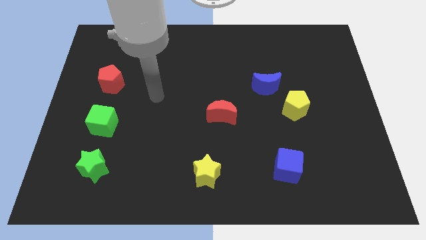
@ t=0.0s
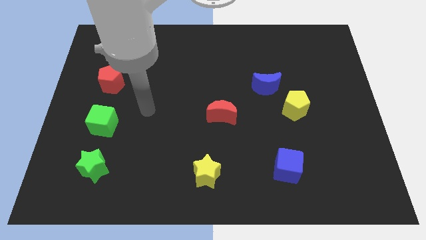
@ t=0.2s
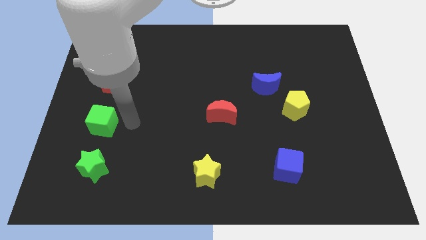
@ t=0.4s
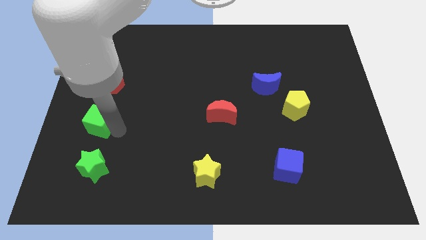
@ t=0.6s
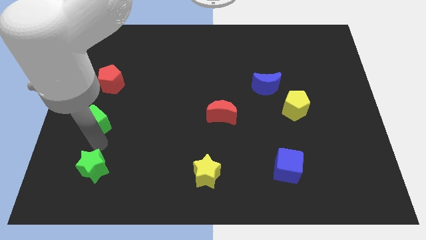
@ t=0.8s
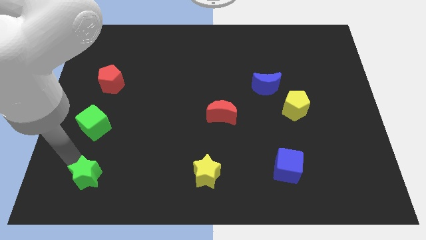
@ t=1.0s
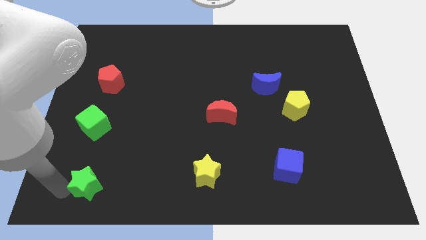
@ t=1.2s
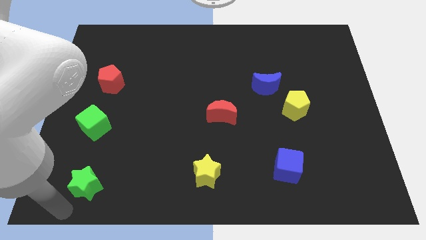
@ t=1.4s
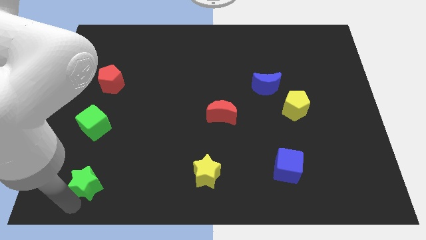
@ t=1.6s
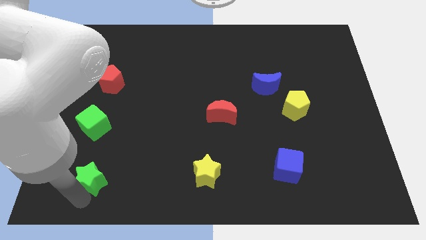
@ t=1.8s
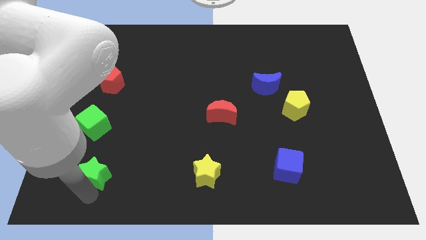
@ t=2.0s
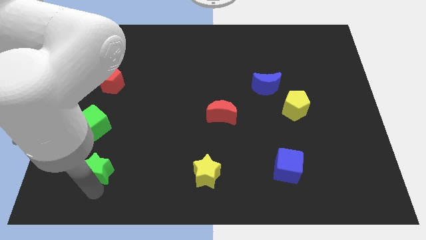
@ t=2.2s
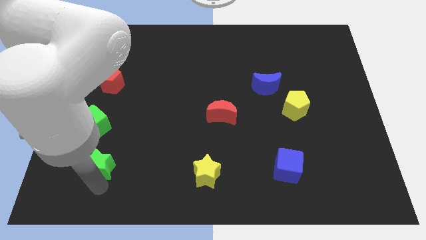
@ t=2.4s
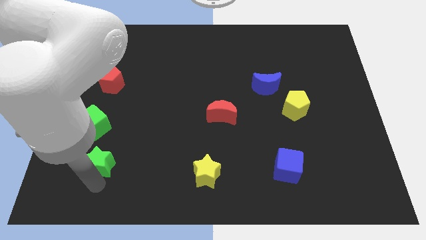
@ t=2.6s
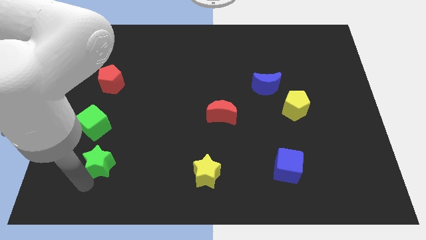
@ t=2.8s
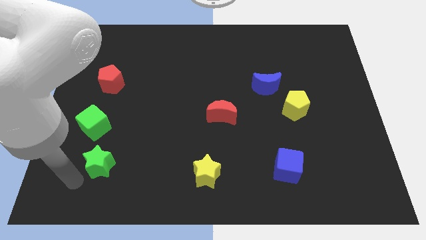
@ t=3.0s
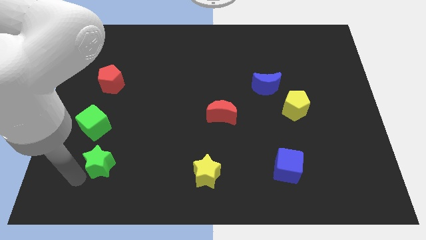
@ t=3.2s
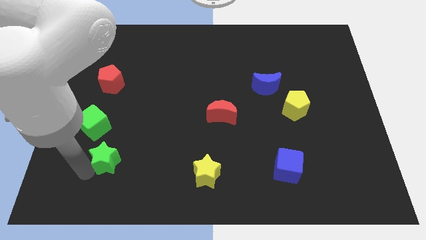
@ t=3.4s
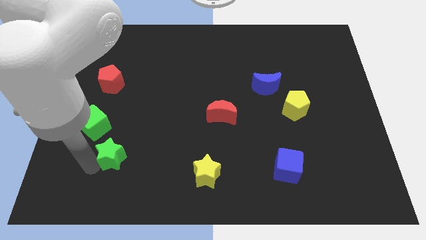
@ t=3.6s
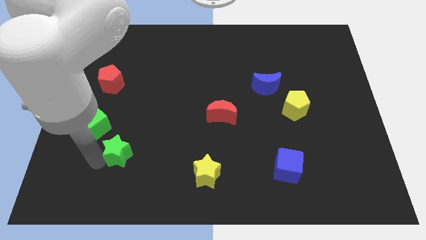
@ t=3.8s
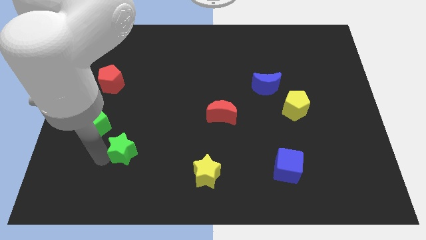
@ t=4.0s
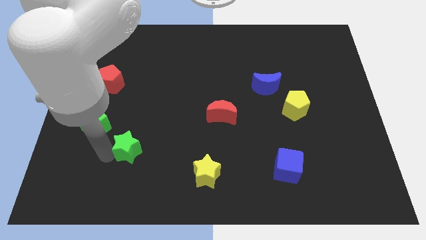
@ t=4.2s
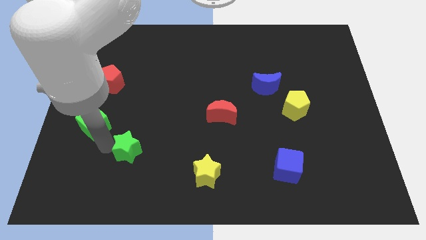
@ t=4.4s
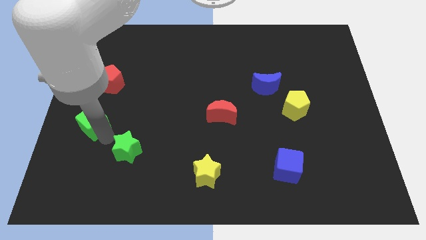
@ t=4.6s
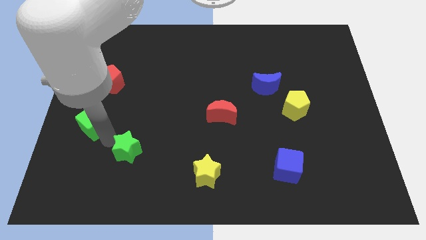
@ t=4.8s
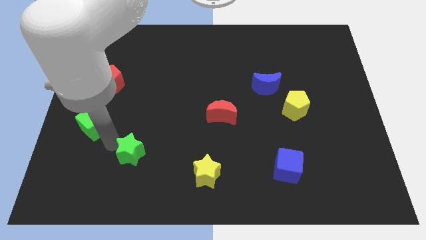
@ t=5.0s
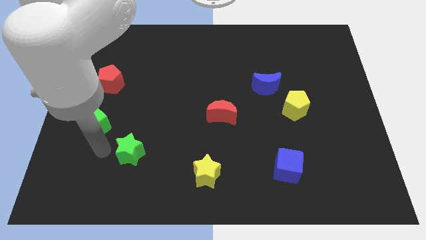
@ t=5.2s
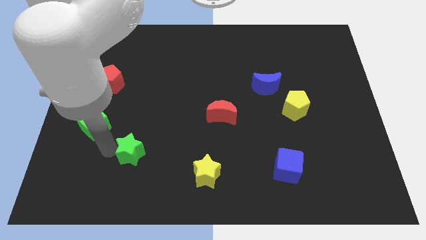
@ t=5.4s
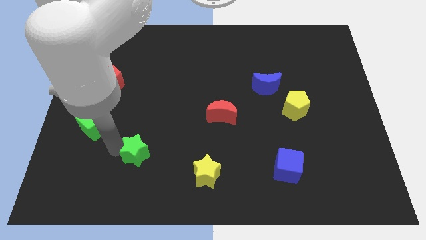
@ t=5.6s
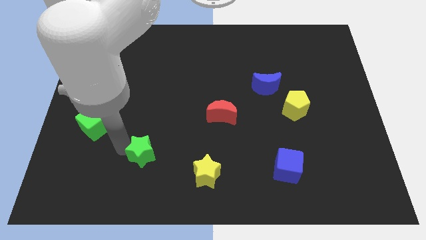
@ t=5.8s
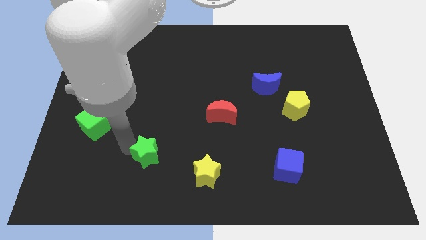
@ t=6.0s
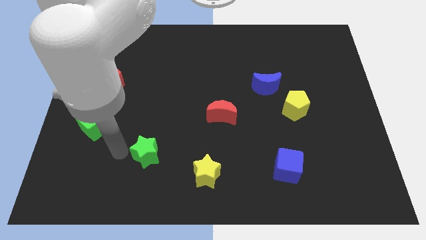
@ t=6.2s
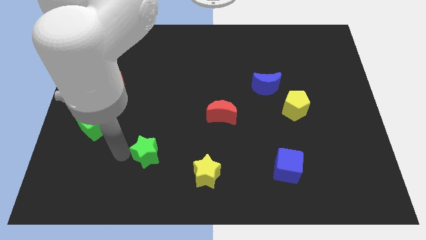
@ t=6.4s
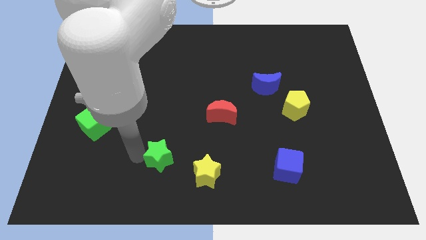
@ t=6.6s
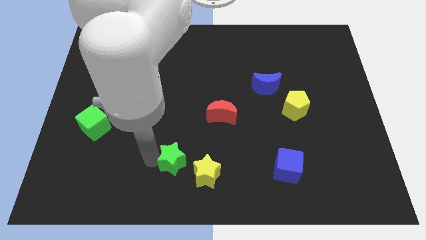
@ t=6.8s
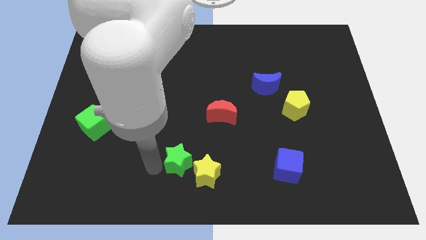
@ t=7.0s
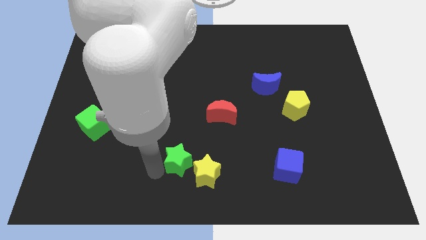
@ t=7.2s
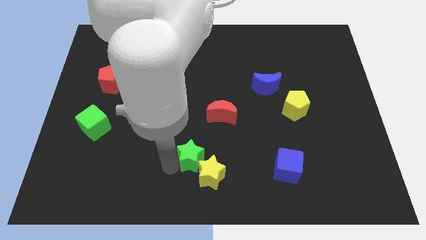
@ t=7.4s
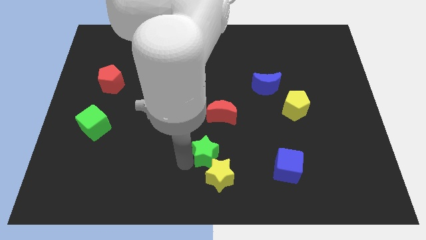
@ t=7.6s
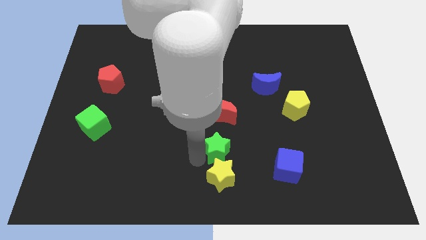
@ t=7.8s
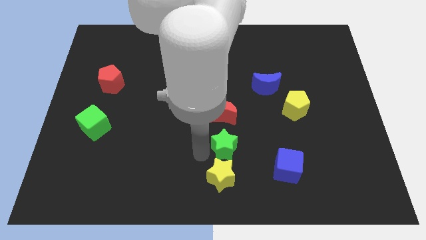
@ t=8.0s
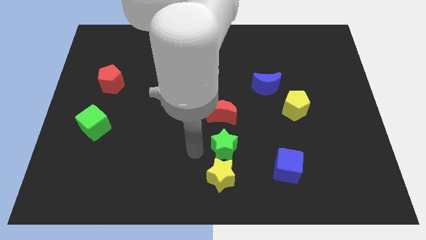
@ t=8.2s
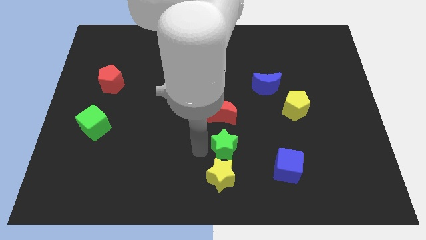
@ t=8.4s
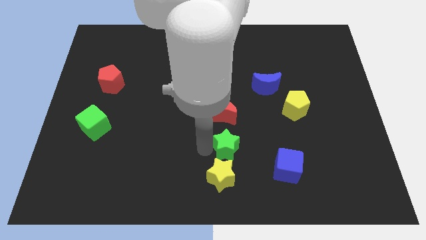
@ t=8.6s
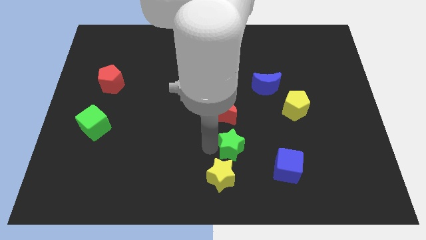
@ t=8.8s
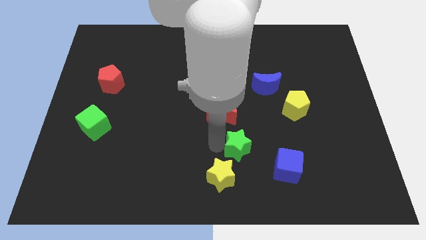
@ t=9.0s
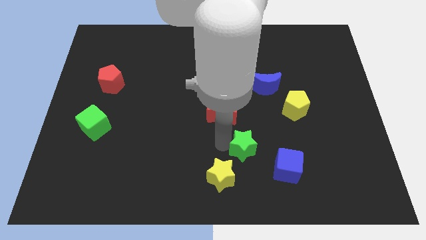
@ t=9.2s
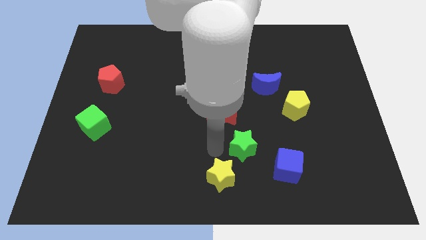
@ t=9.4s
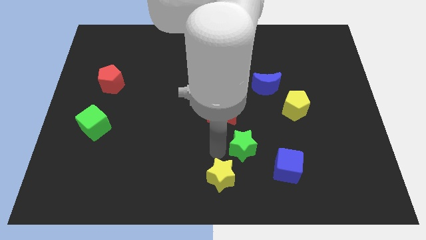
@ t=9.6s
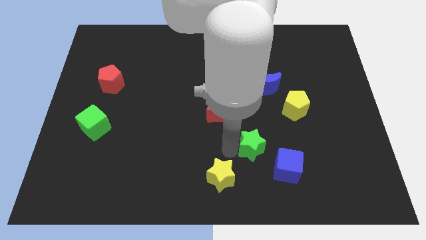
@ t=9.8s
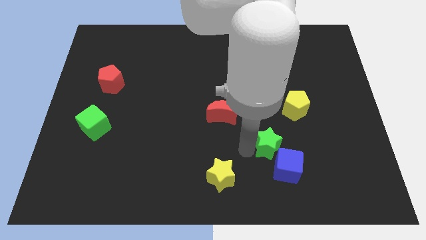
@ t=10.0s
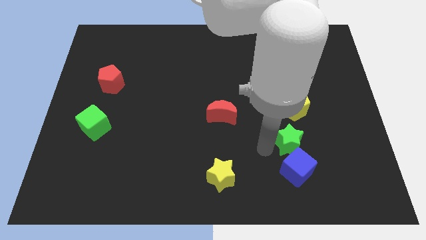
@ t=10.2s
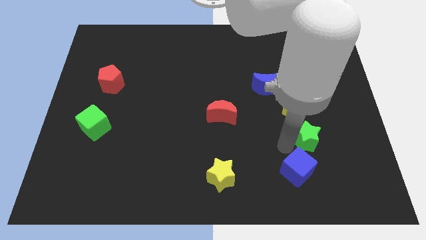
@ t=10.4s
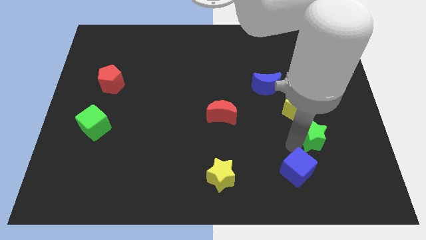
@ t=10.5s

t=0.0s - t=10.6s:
put the green star diagonally down and to the right of the yellow pentagon

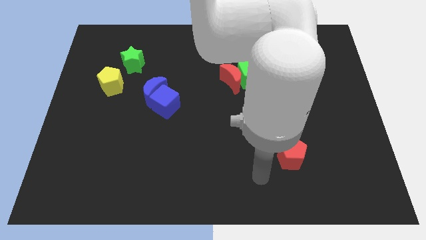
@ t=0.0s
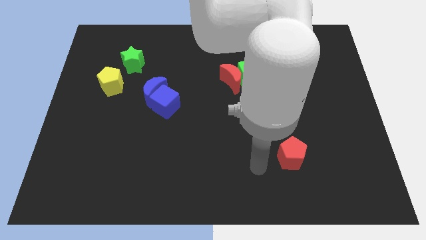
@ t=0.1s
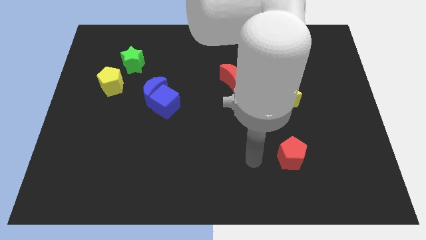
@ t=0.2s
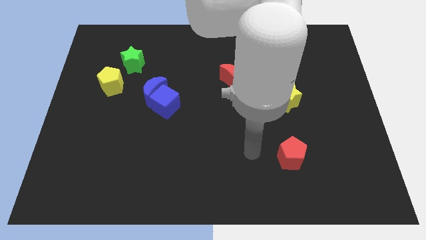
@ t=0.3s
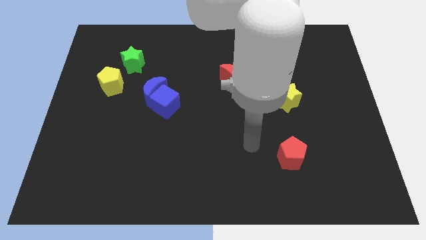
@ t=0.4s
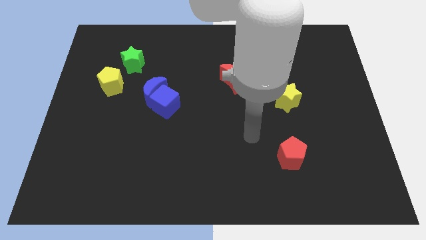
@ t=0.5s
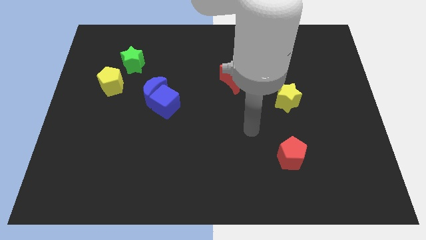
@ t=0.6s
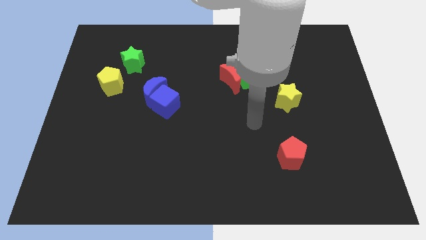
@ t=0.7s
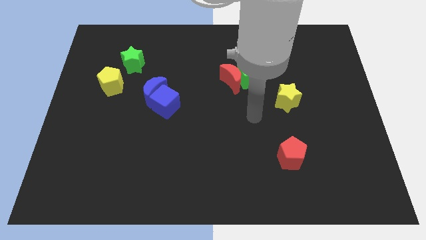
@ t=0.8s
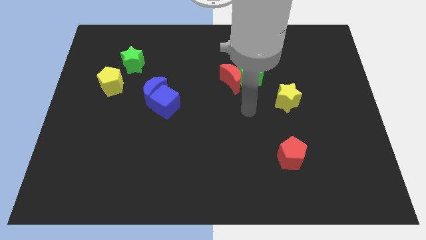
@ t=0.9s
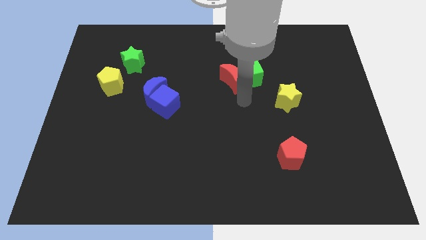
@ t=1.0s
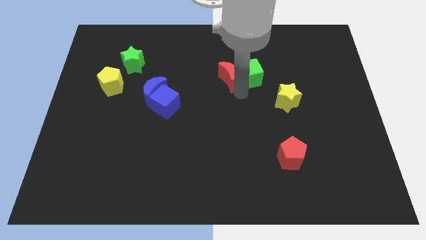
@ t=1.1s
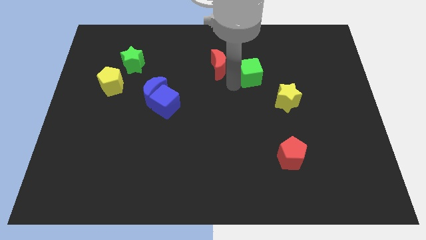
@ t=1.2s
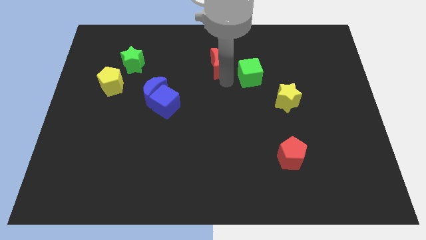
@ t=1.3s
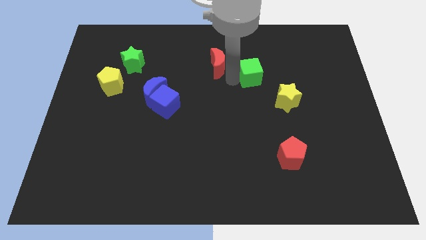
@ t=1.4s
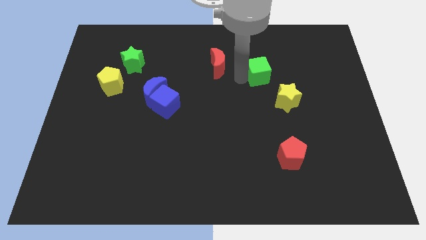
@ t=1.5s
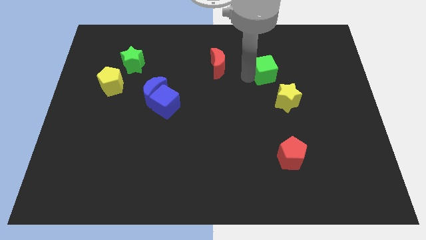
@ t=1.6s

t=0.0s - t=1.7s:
put the green cube to the top of the yellow star
